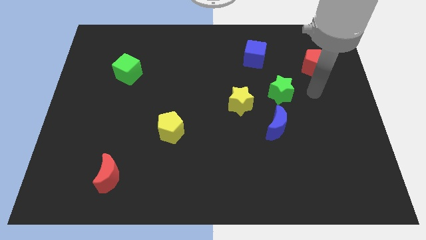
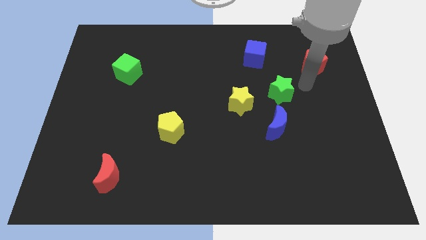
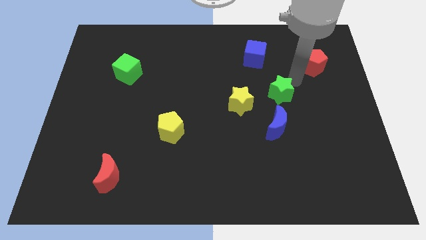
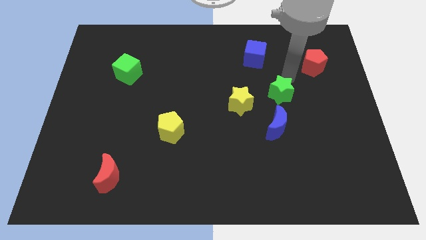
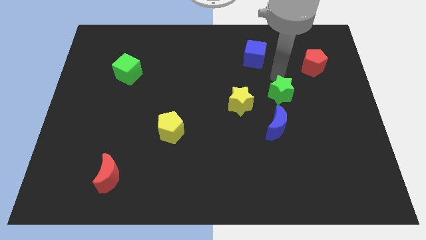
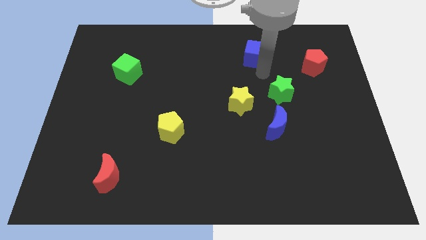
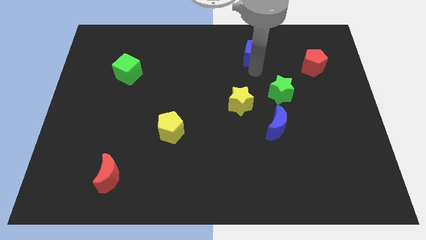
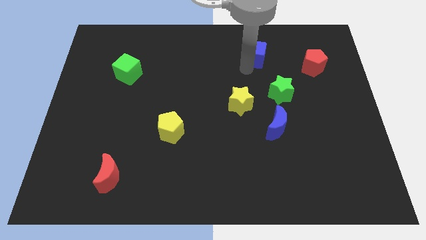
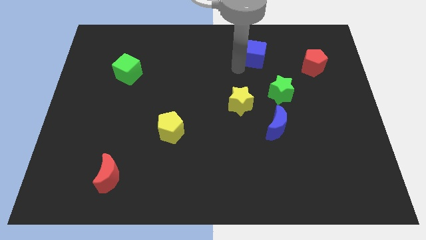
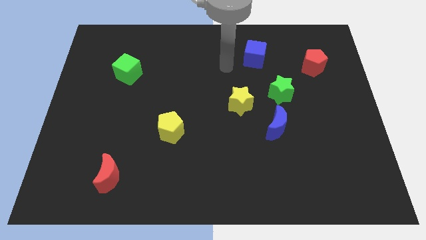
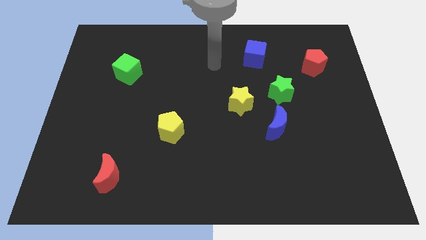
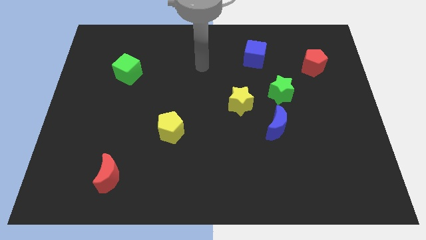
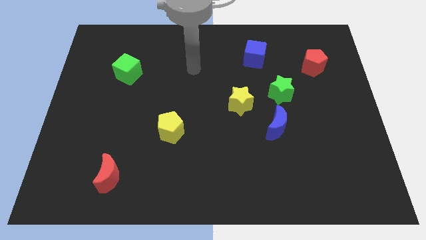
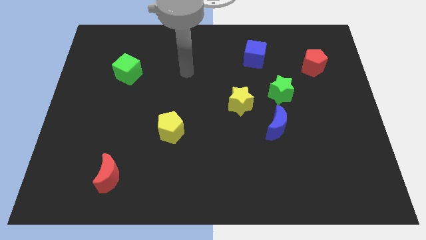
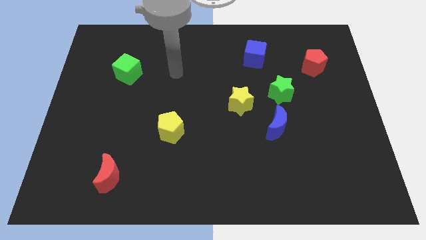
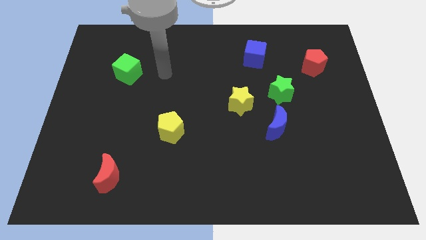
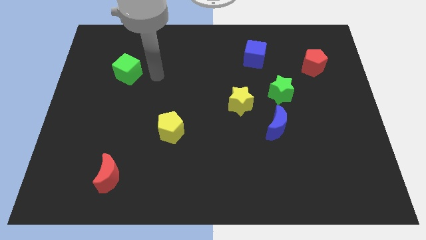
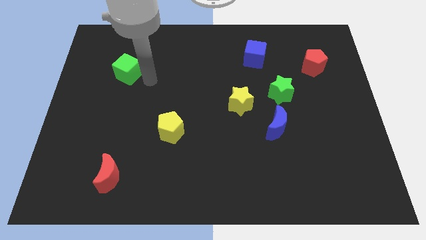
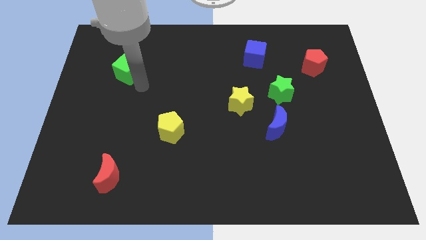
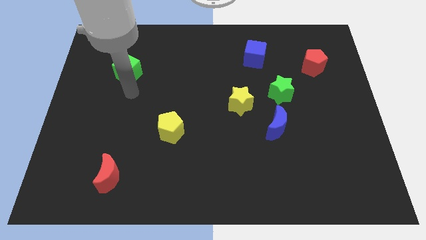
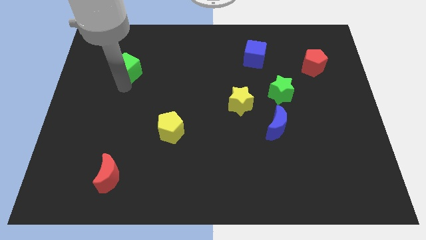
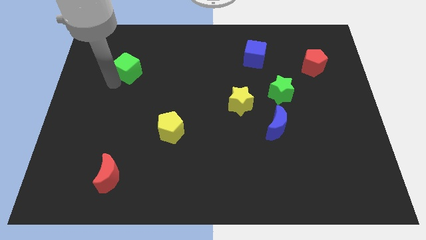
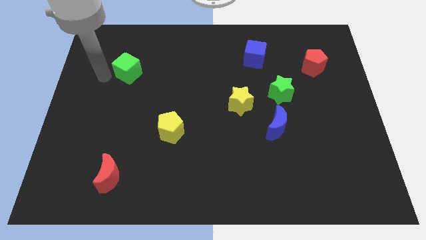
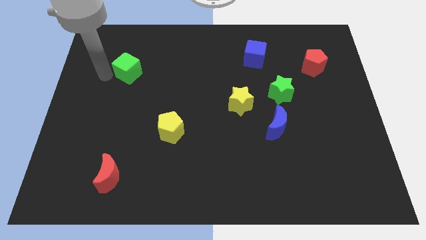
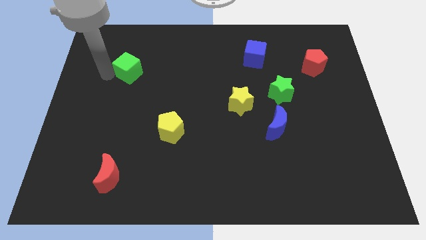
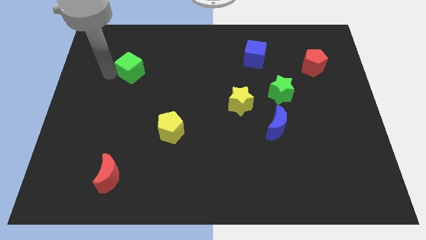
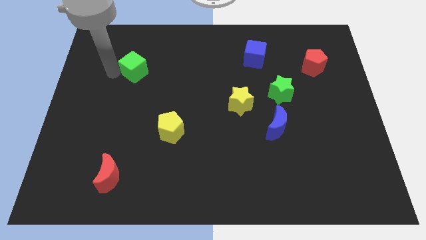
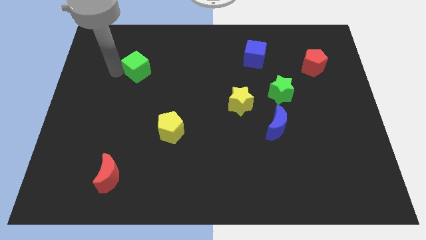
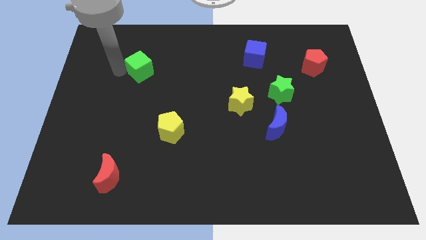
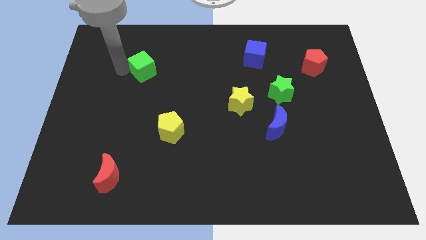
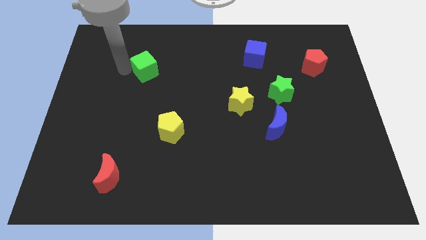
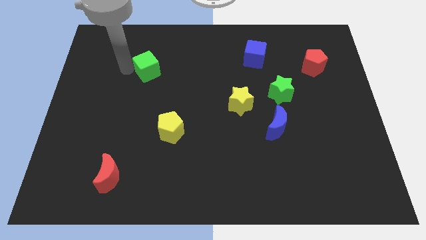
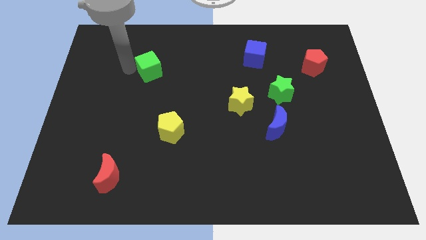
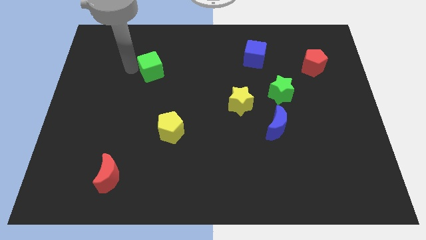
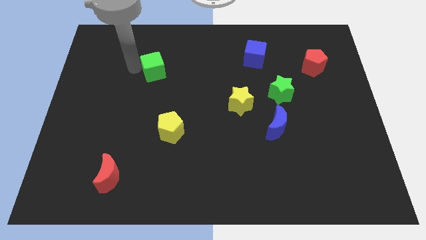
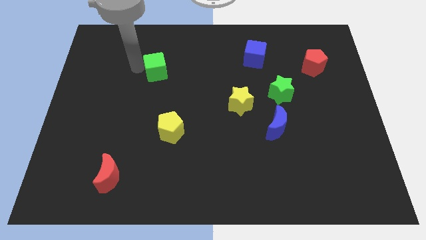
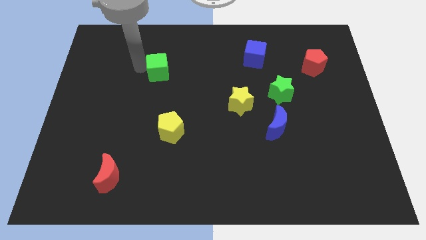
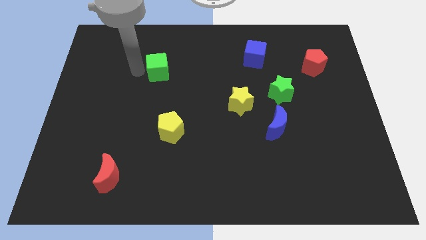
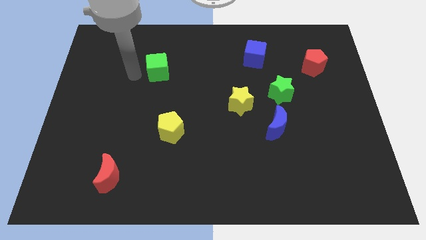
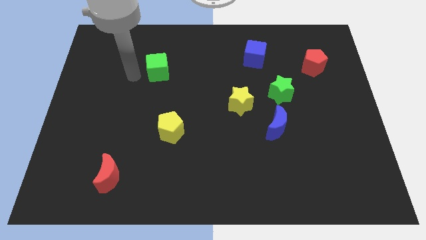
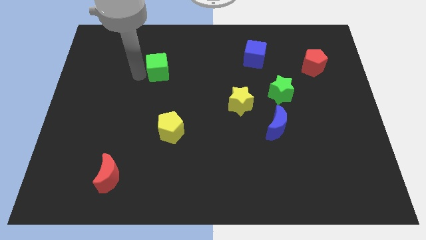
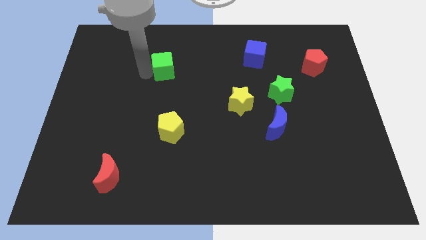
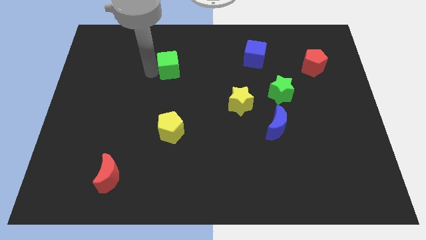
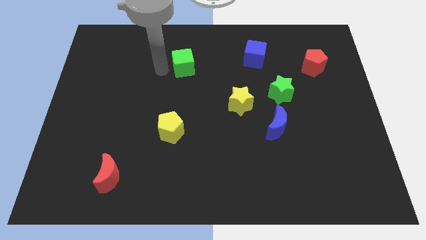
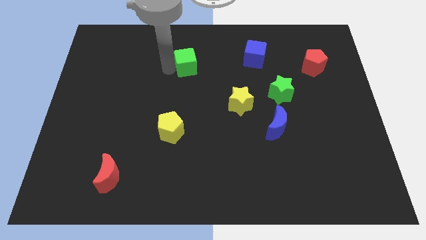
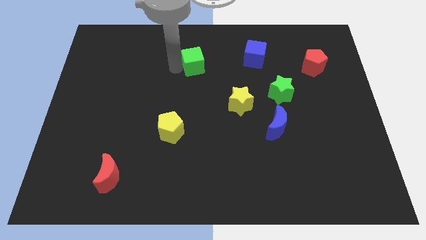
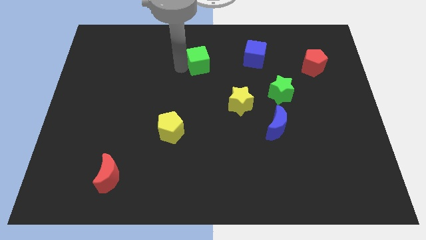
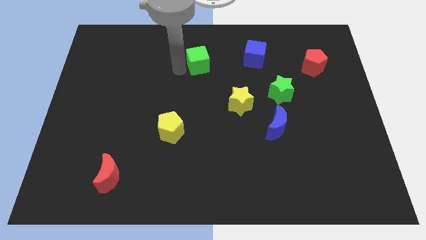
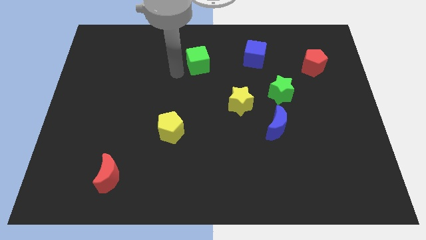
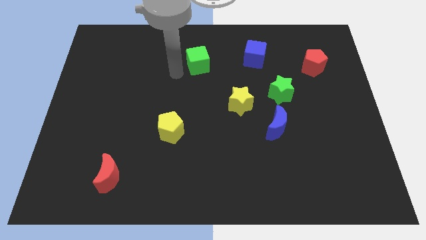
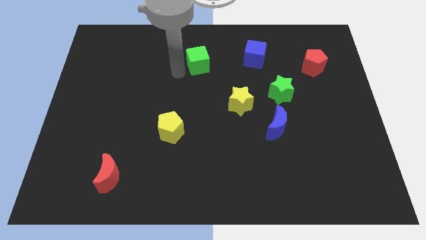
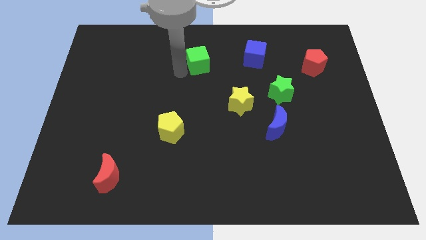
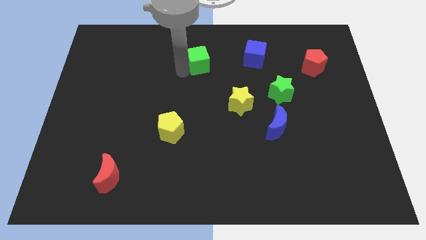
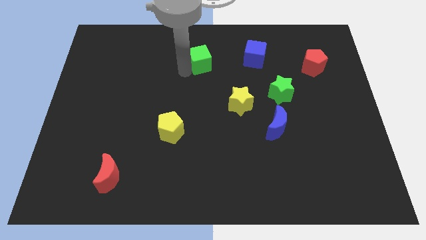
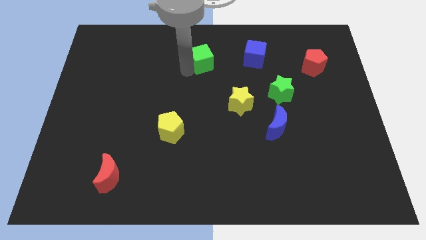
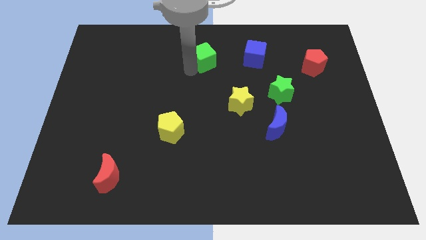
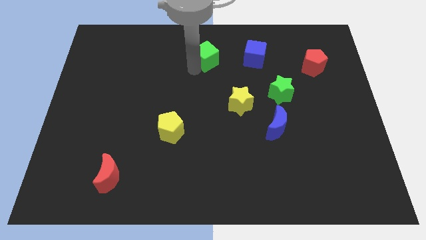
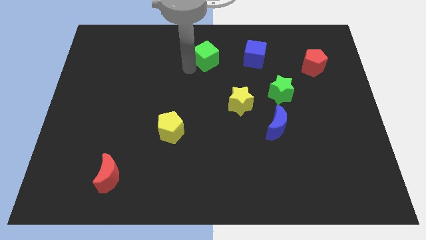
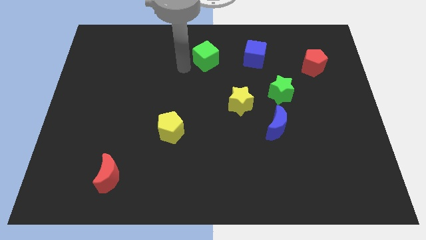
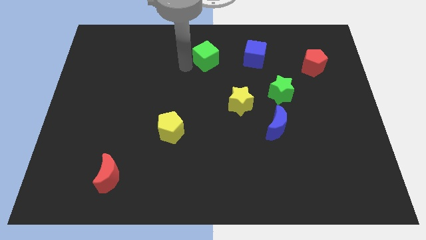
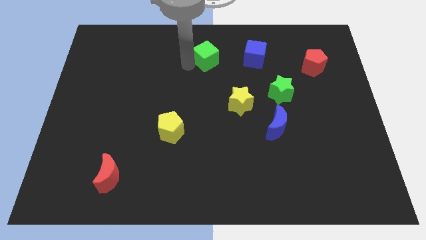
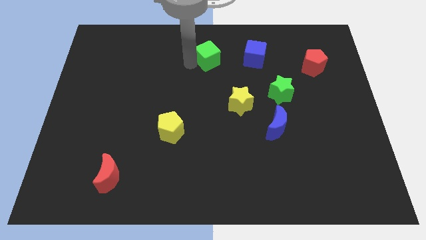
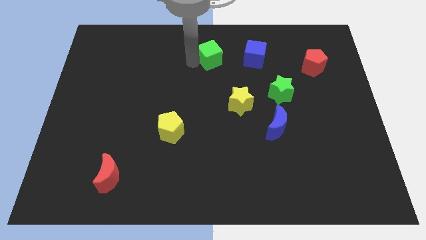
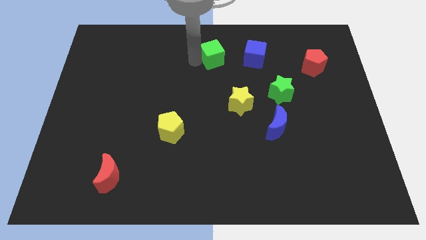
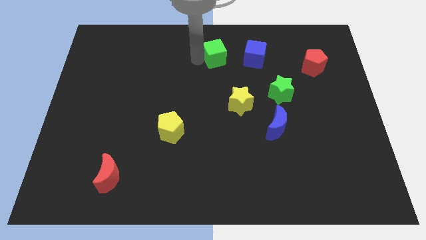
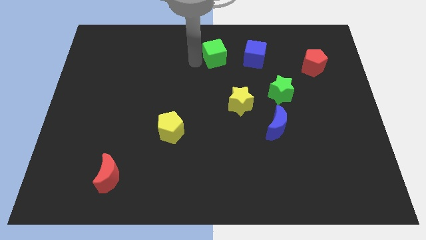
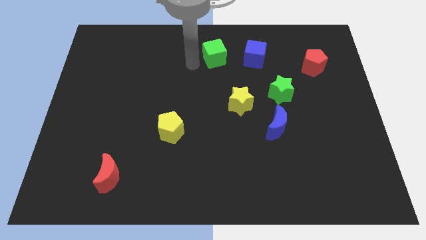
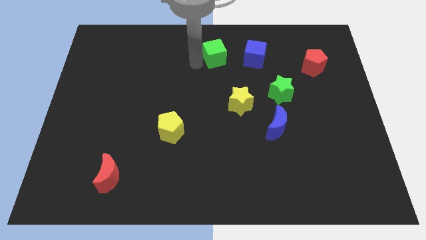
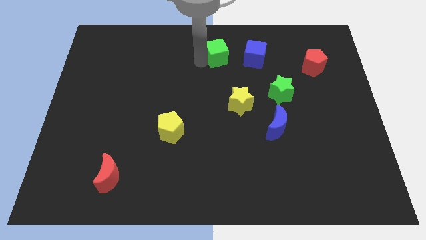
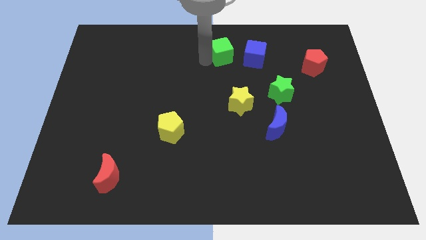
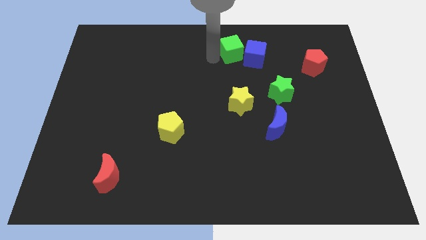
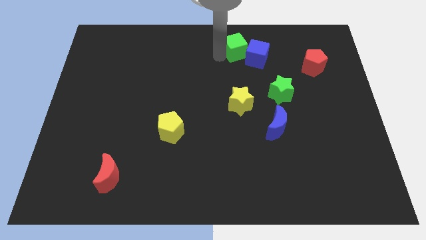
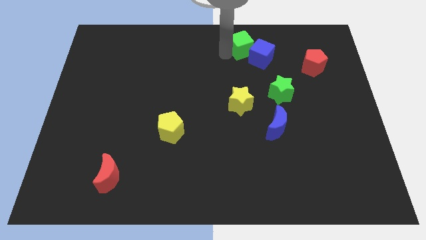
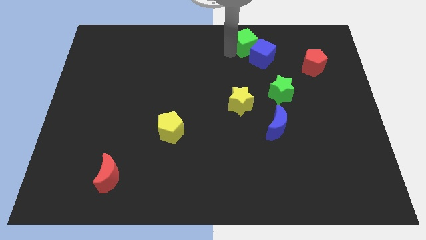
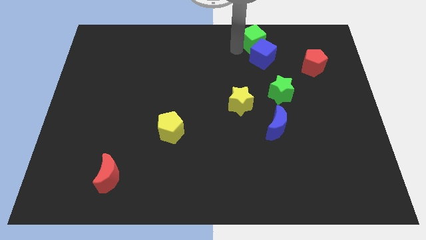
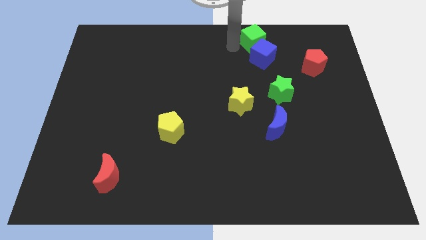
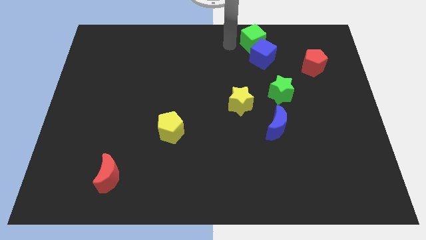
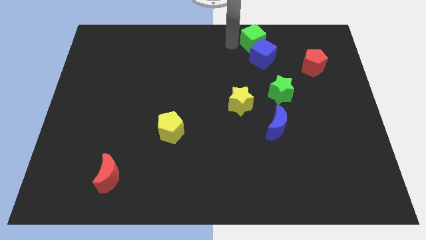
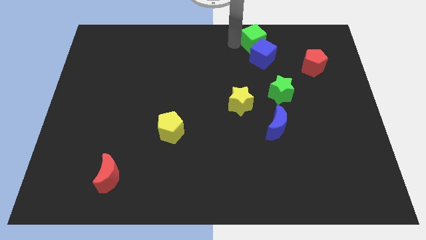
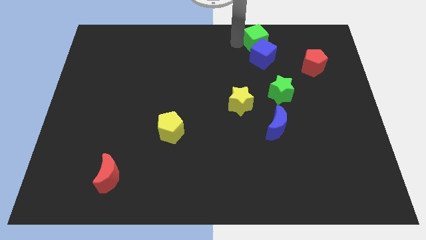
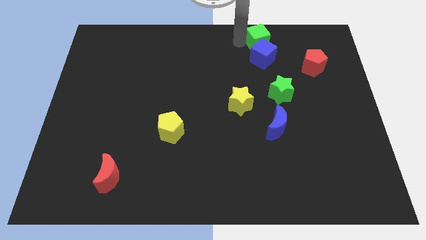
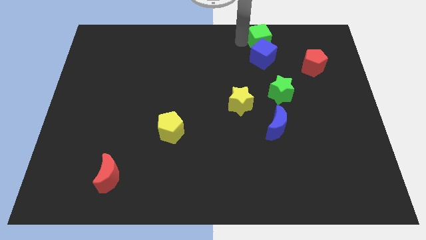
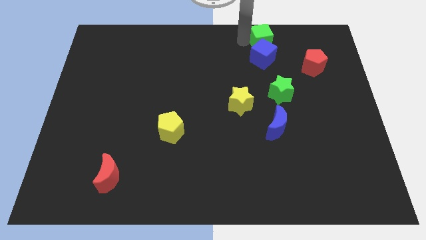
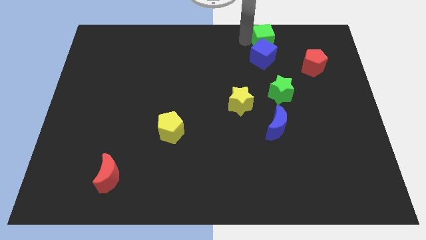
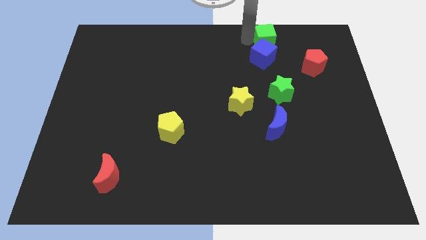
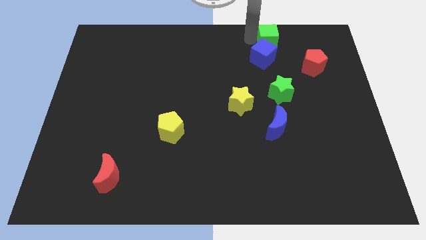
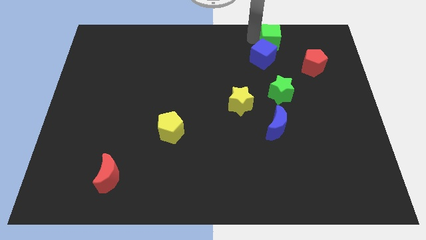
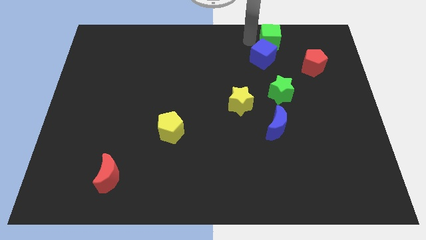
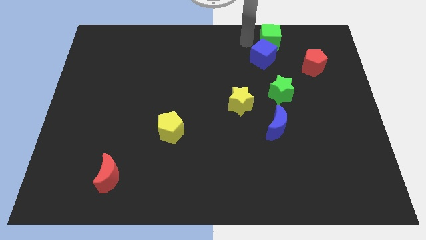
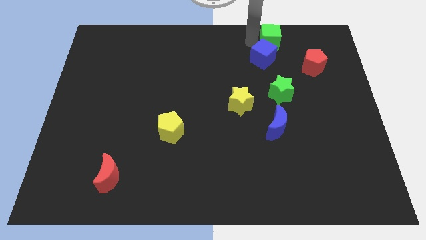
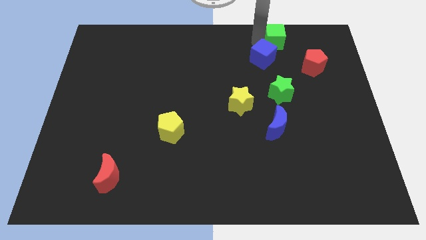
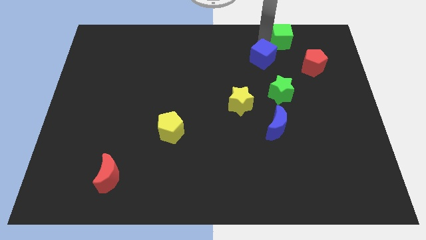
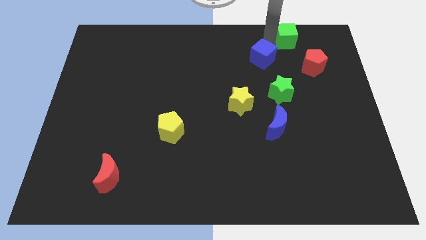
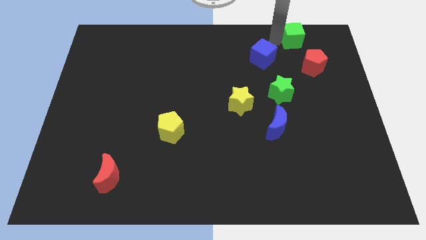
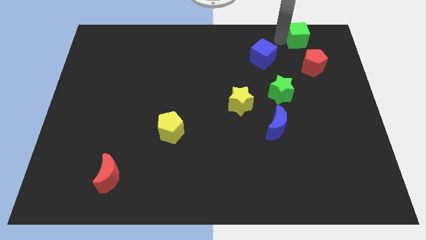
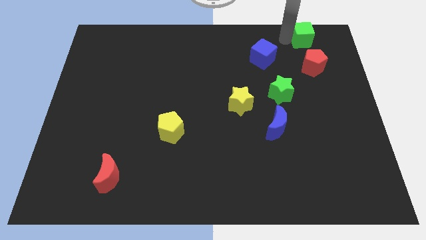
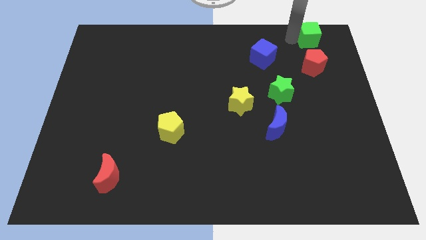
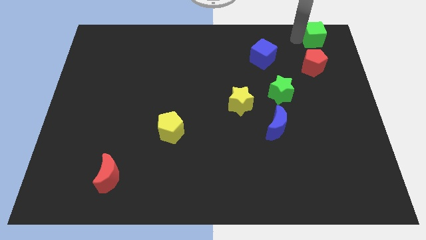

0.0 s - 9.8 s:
slide the green cube to the top right of the board
